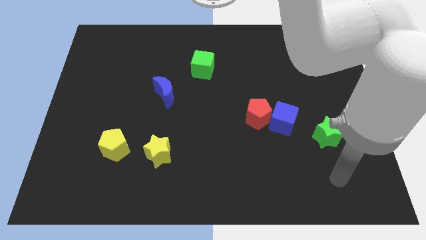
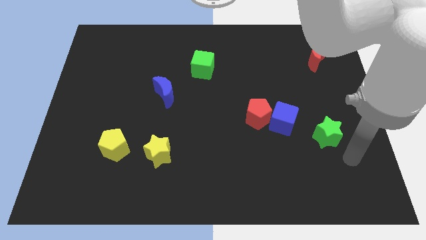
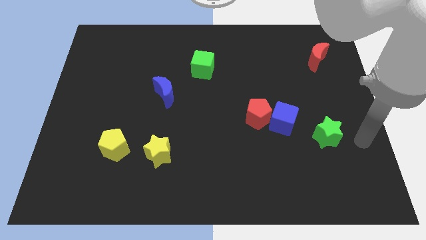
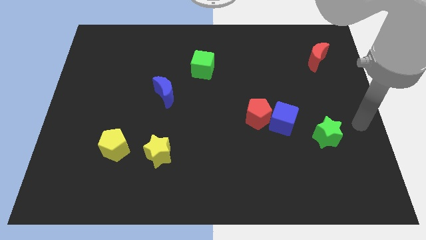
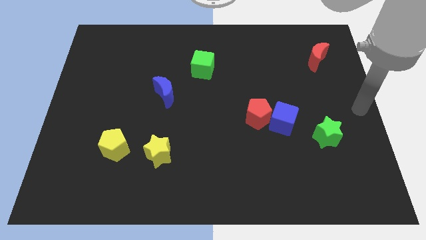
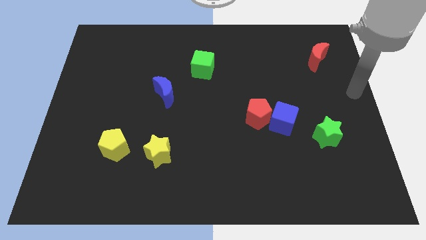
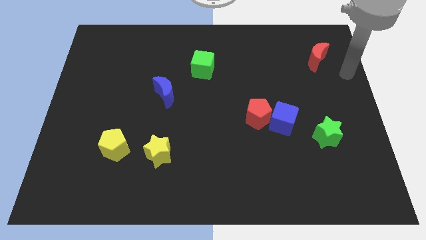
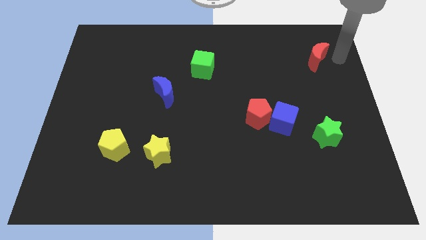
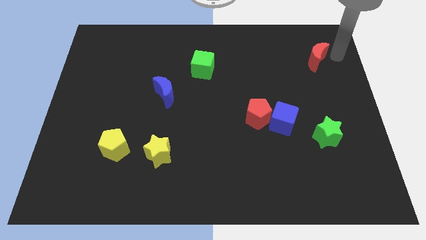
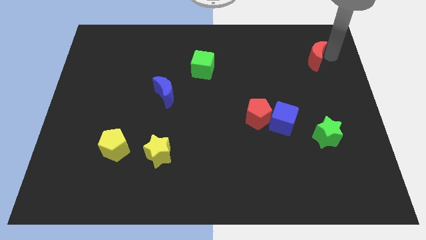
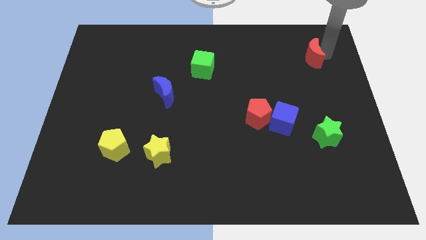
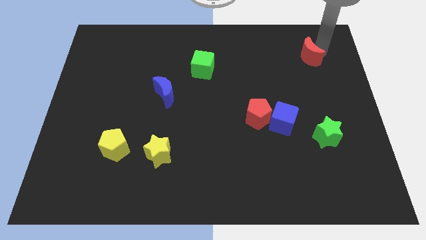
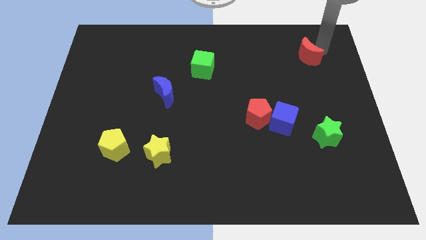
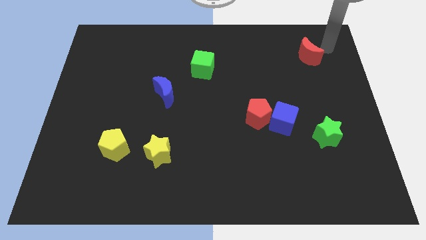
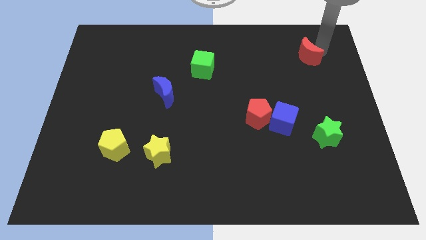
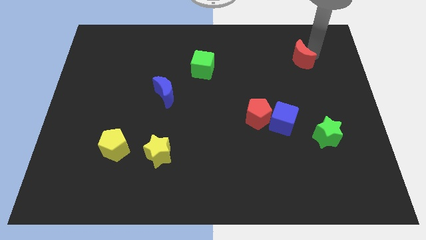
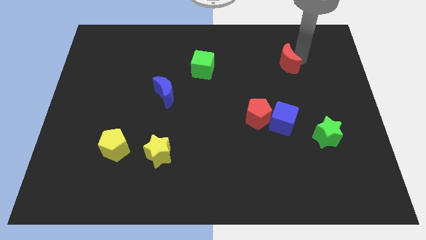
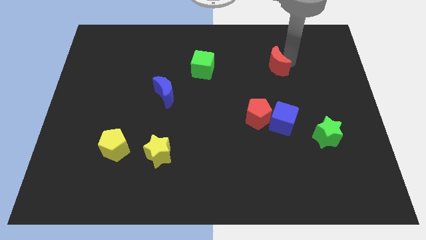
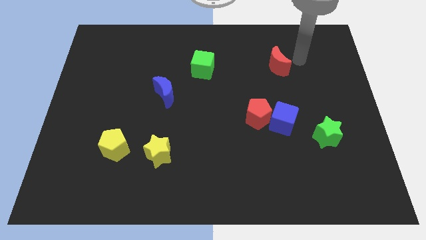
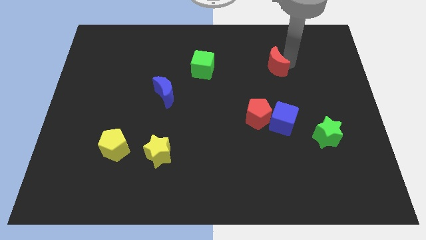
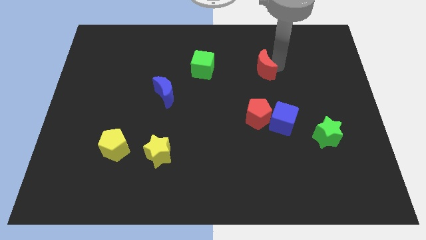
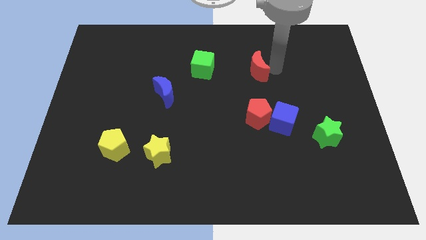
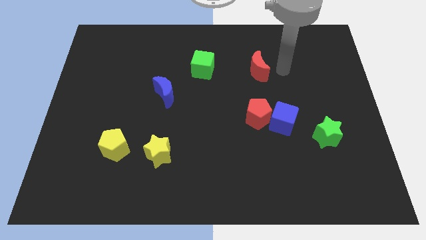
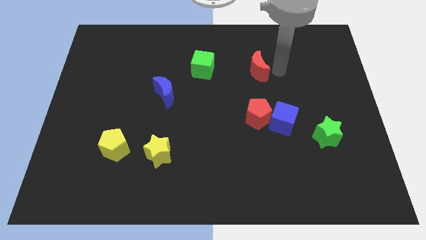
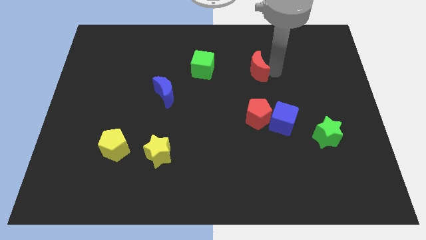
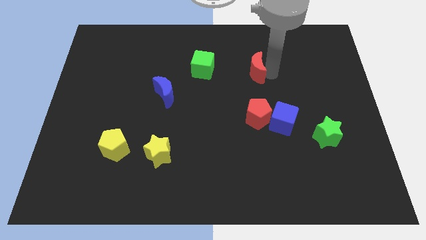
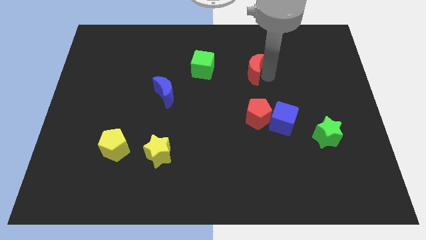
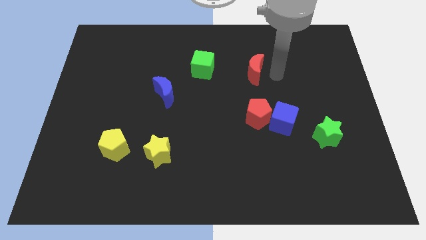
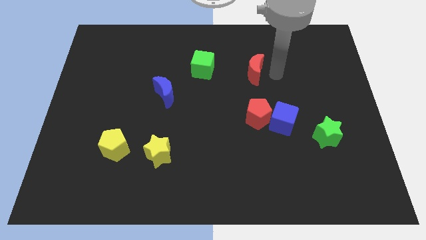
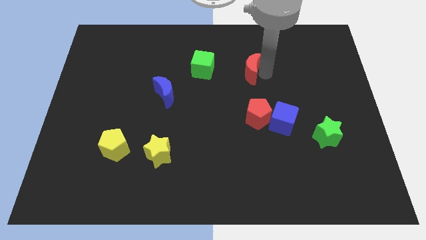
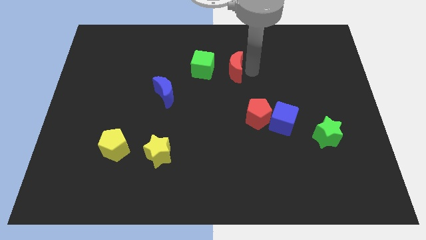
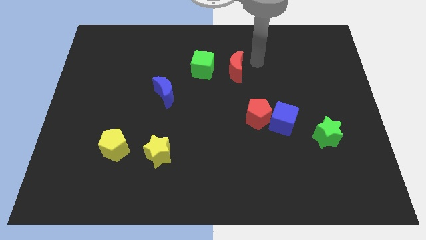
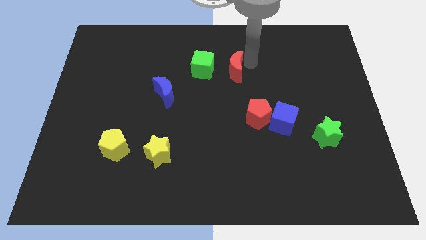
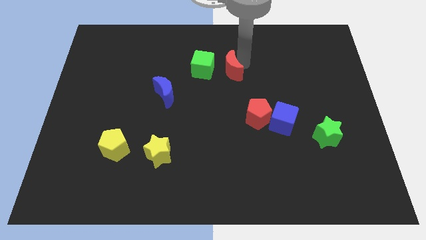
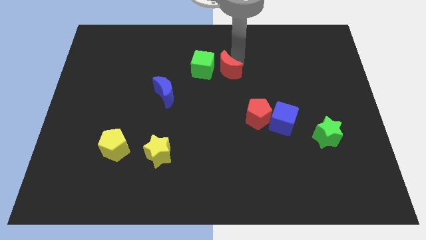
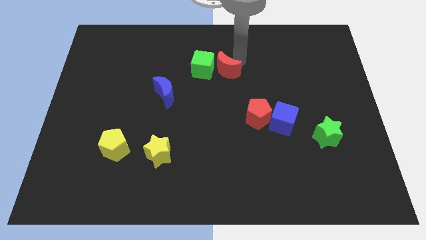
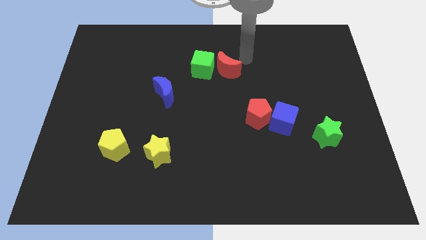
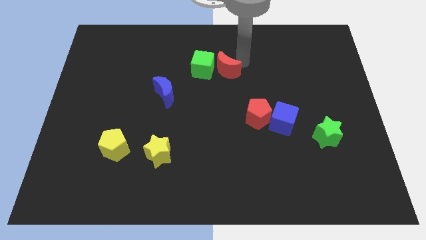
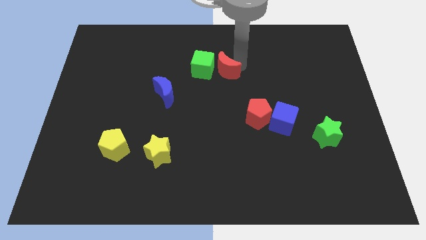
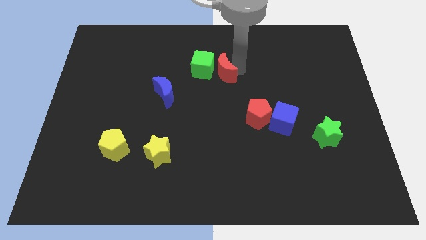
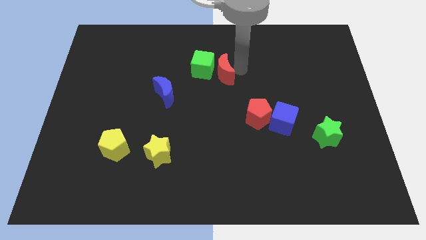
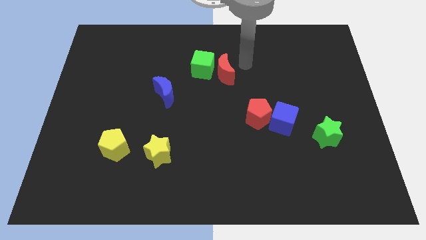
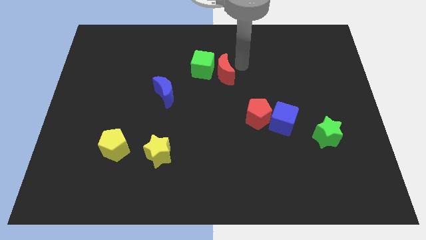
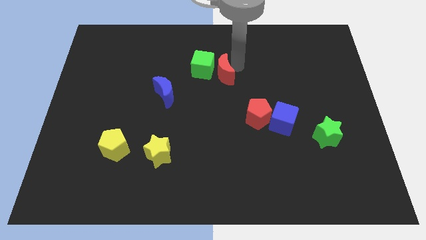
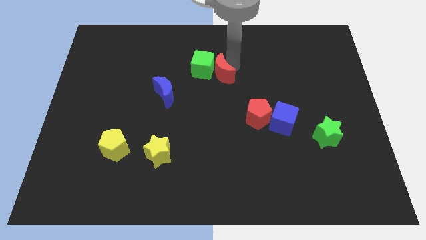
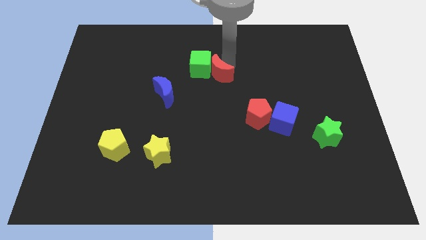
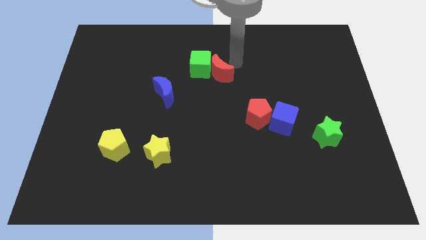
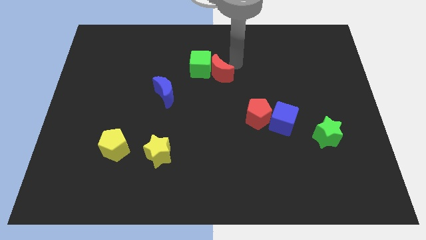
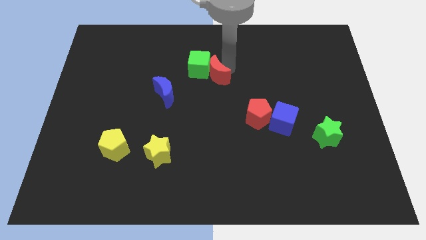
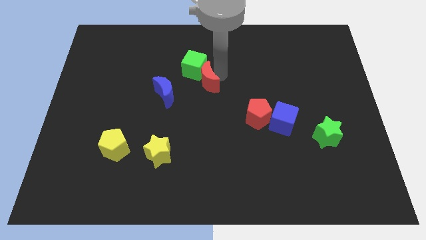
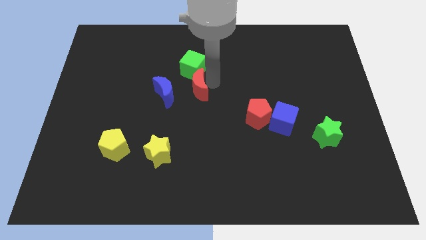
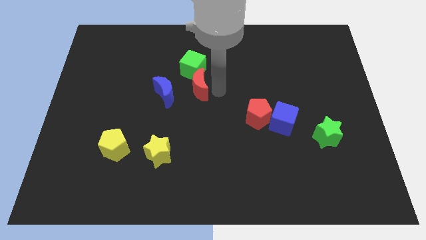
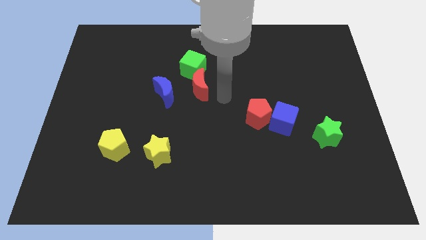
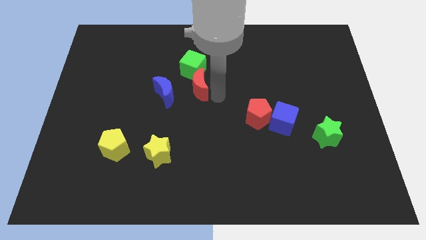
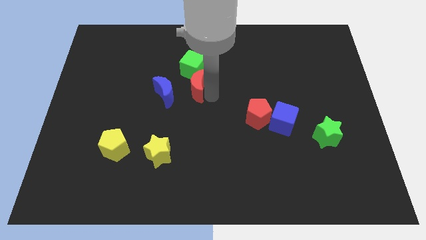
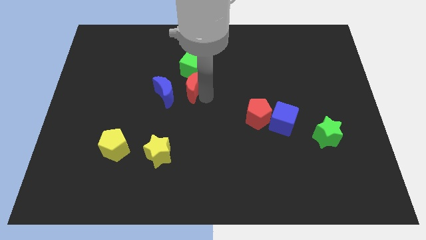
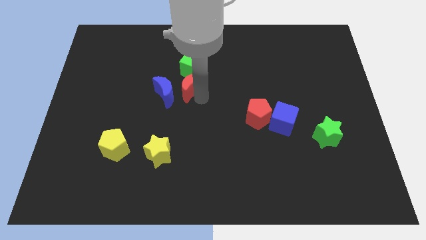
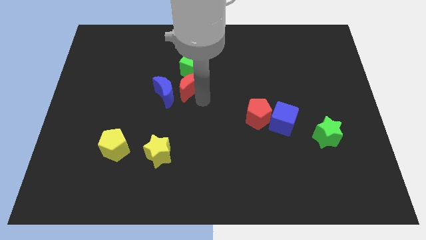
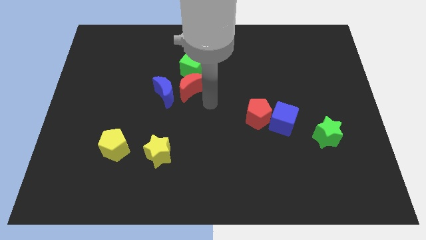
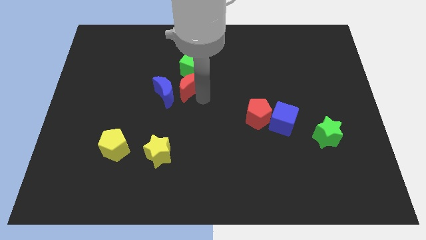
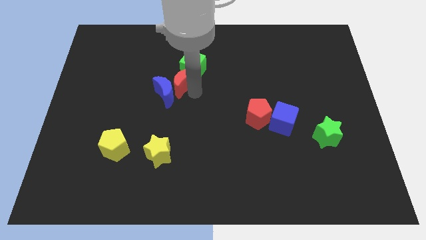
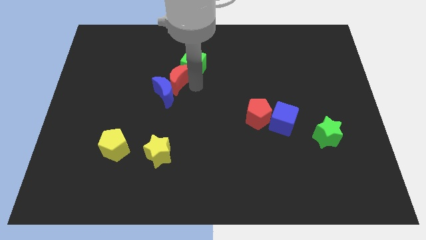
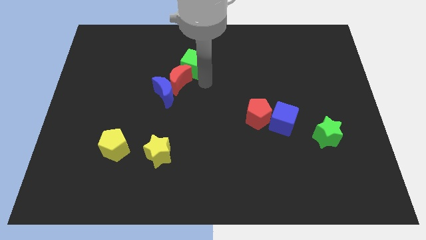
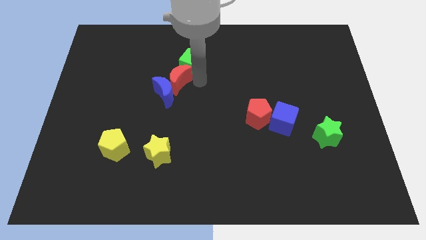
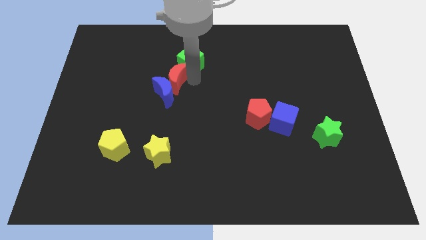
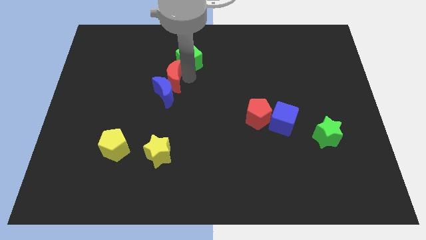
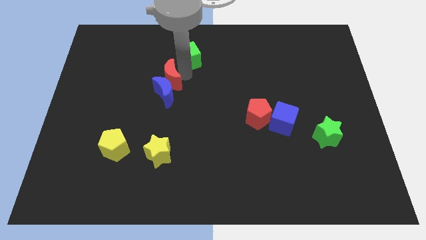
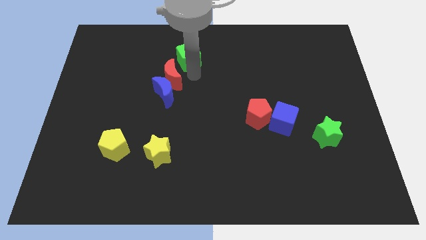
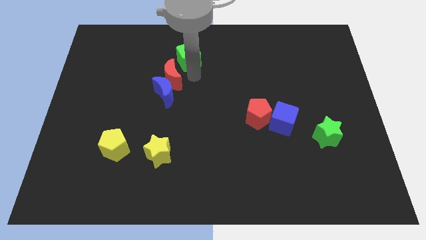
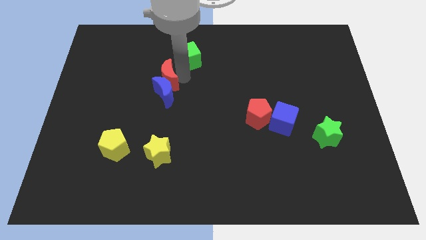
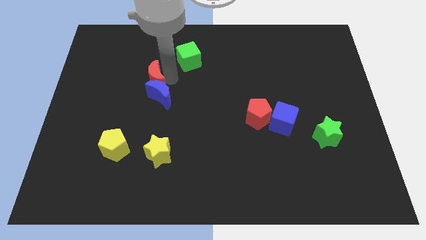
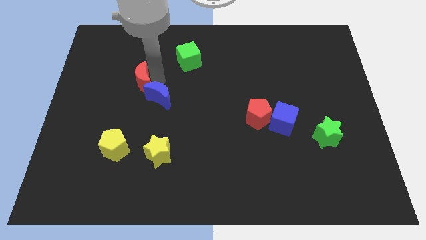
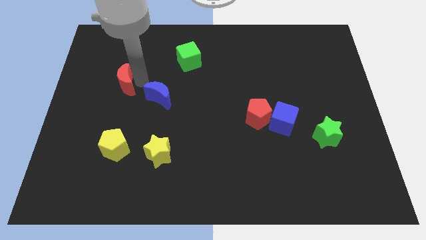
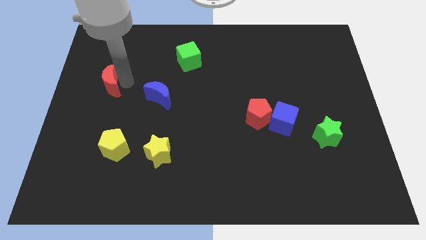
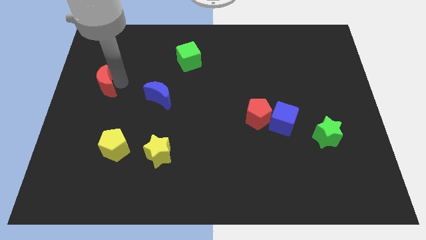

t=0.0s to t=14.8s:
slide the red moon to the left side of the board
